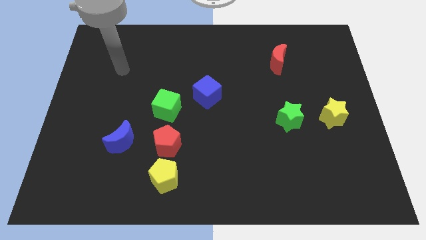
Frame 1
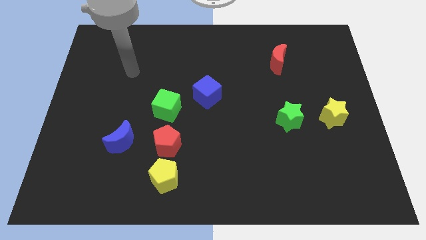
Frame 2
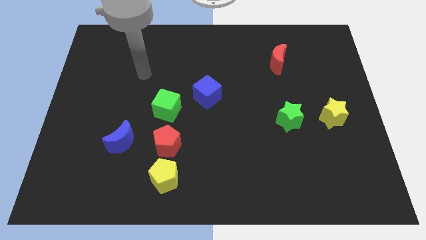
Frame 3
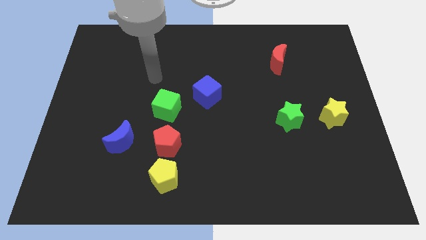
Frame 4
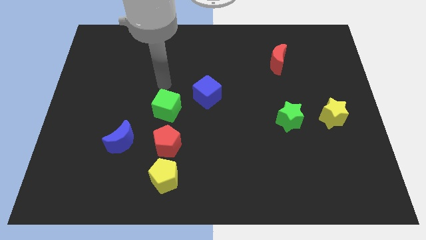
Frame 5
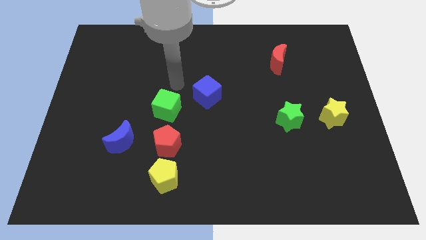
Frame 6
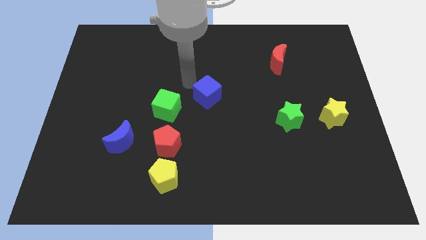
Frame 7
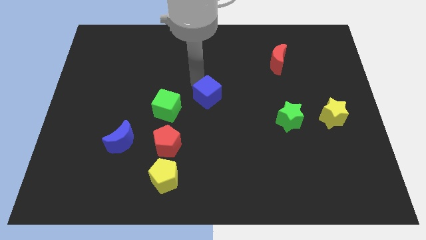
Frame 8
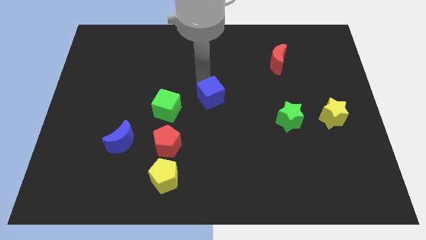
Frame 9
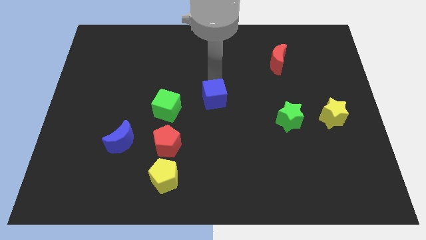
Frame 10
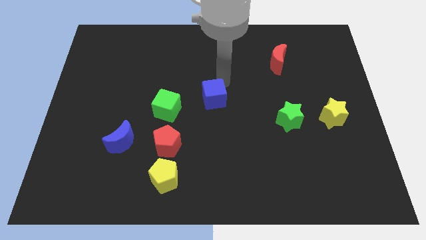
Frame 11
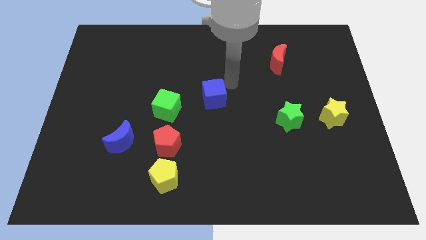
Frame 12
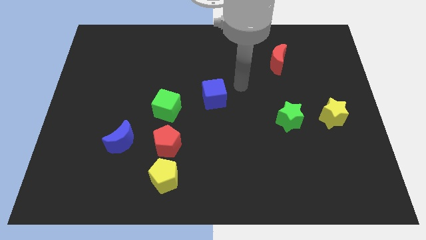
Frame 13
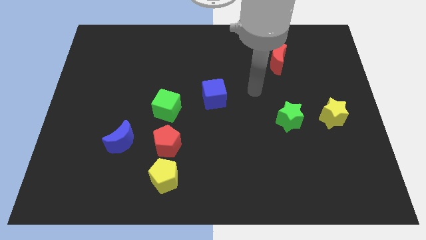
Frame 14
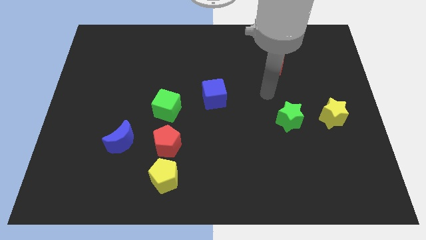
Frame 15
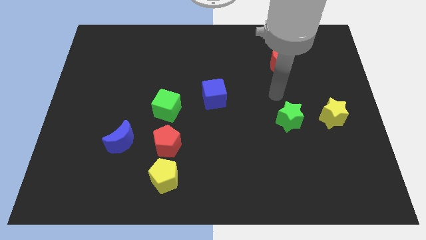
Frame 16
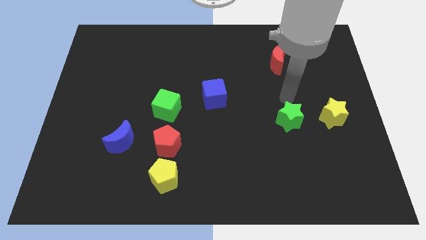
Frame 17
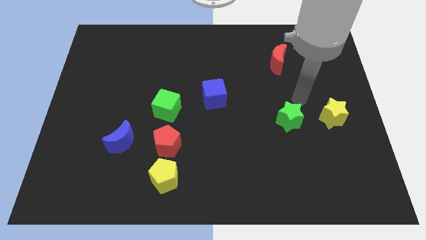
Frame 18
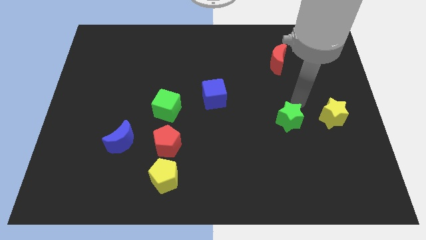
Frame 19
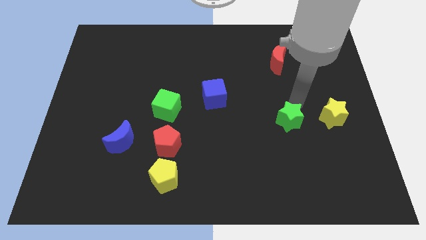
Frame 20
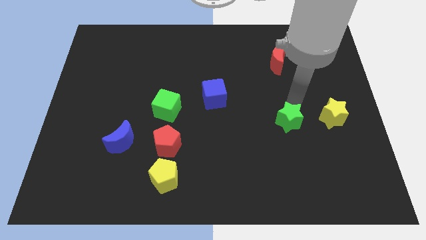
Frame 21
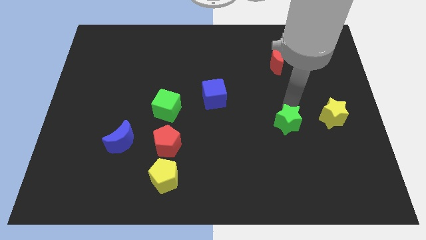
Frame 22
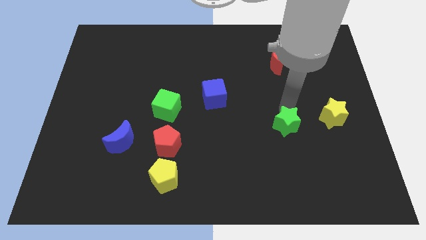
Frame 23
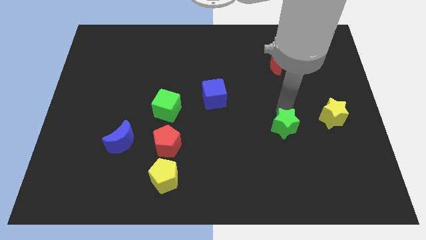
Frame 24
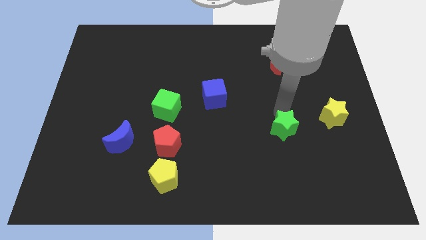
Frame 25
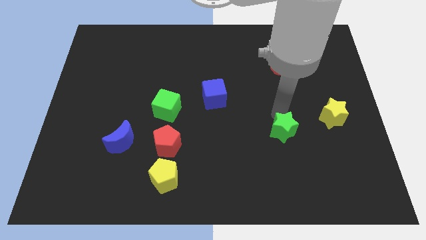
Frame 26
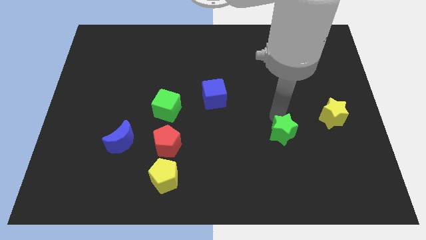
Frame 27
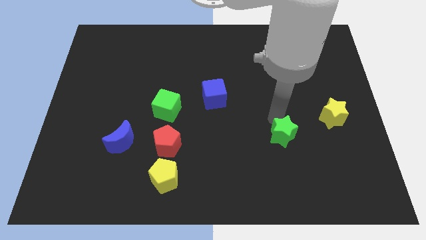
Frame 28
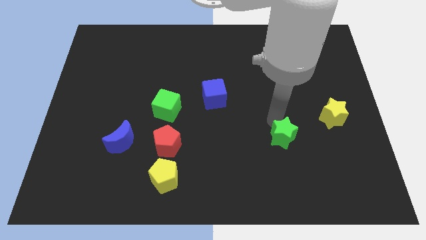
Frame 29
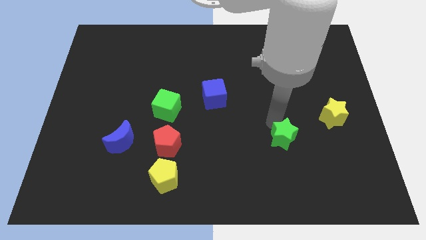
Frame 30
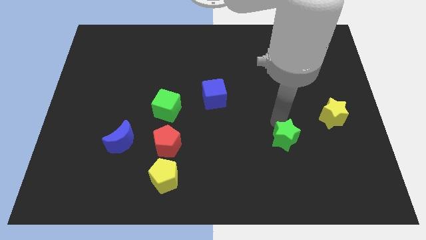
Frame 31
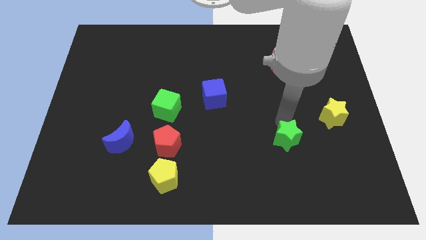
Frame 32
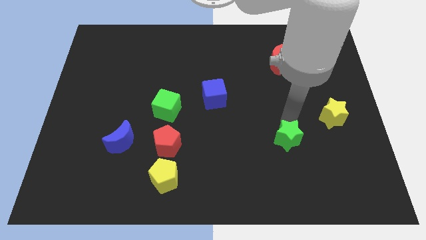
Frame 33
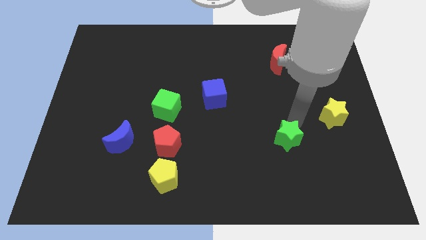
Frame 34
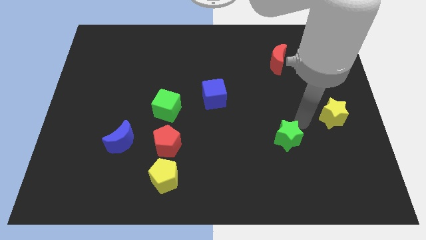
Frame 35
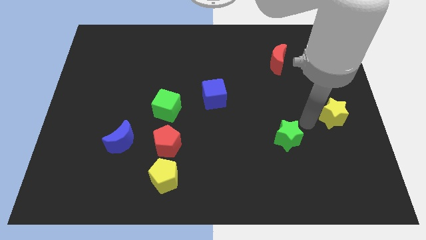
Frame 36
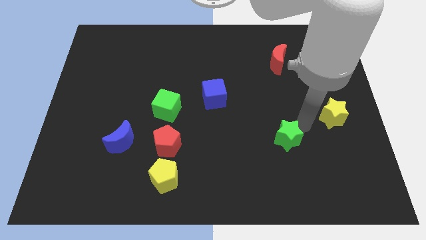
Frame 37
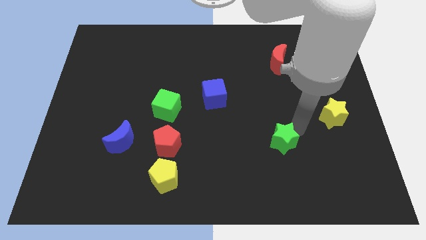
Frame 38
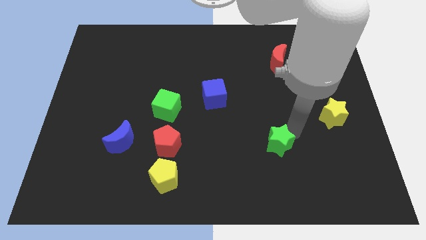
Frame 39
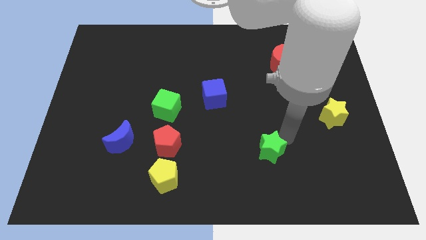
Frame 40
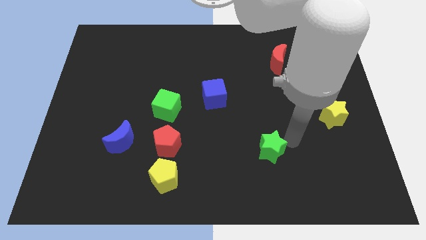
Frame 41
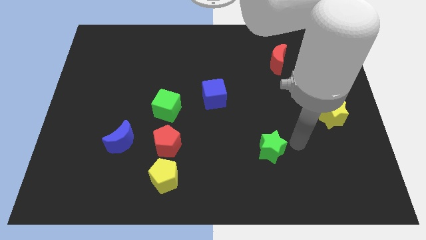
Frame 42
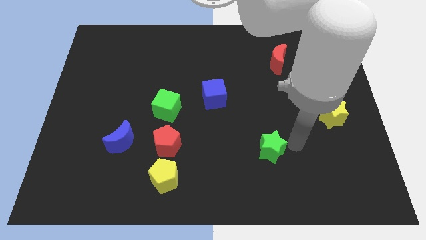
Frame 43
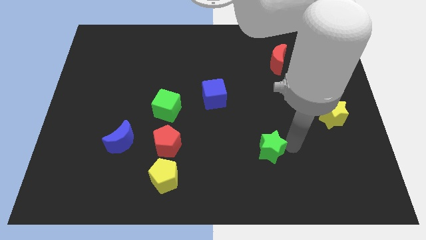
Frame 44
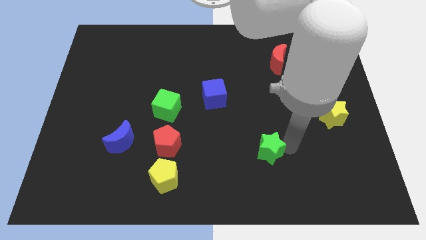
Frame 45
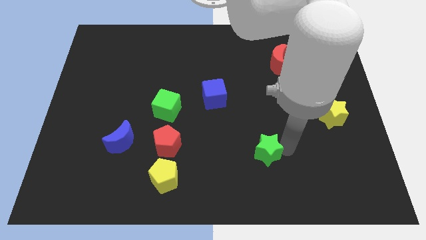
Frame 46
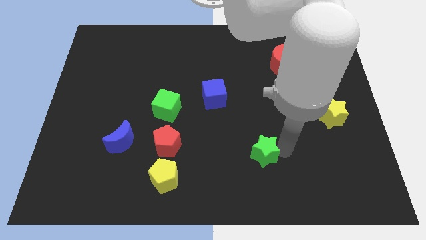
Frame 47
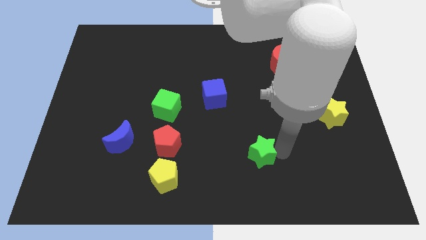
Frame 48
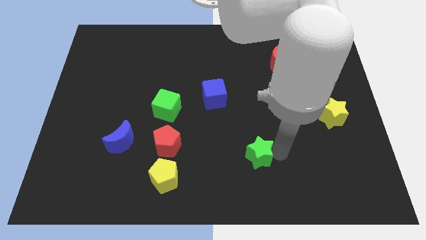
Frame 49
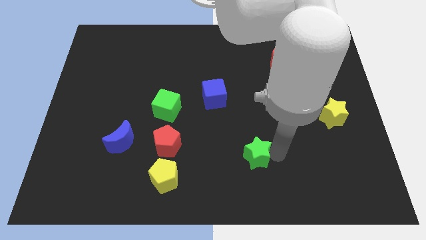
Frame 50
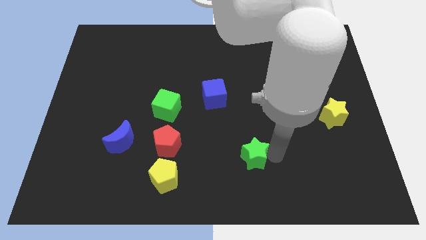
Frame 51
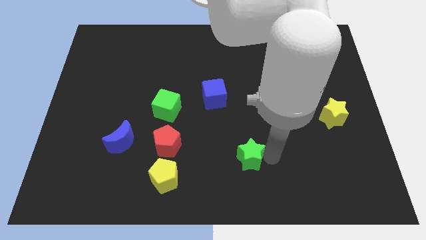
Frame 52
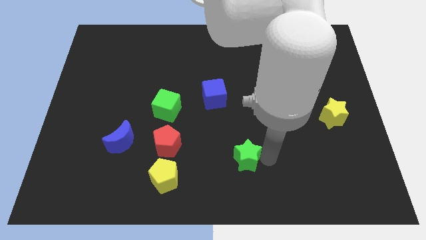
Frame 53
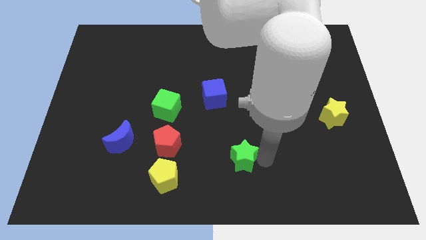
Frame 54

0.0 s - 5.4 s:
put the green star to the bottom side

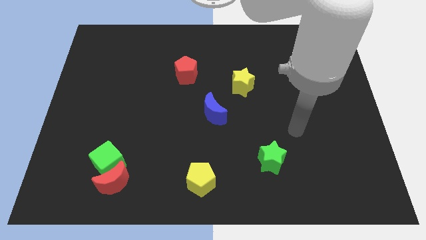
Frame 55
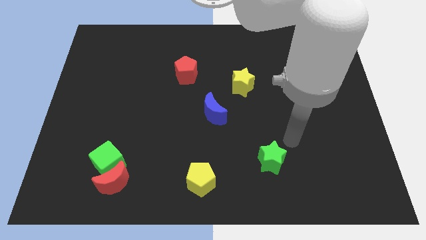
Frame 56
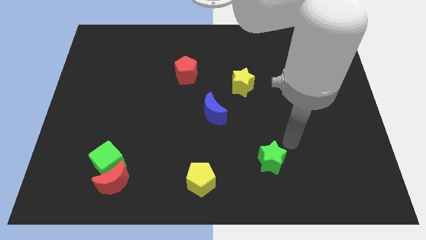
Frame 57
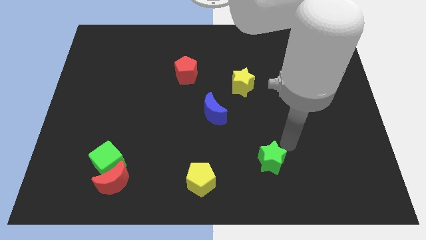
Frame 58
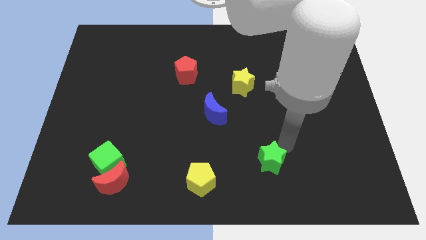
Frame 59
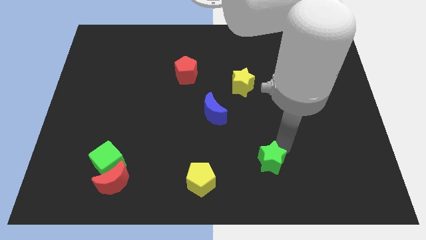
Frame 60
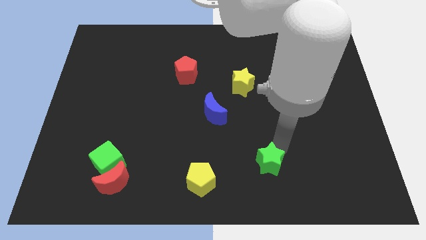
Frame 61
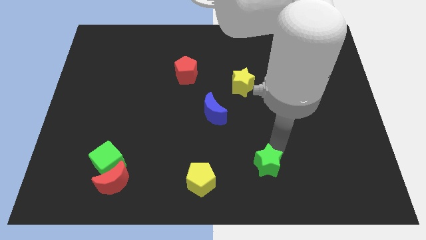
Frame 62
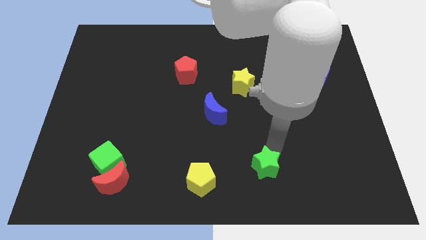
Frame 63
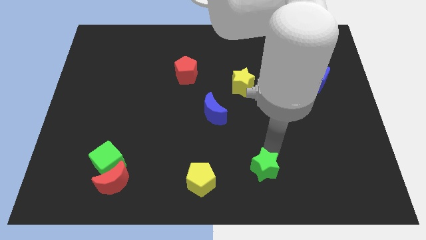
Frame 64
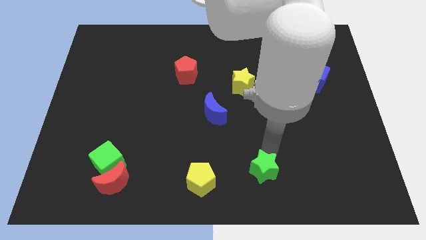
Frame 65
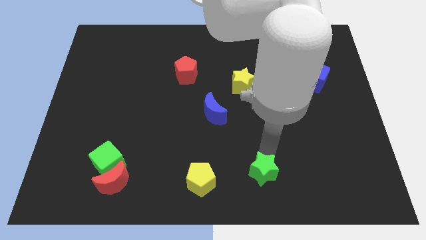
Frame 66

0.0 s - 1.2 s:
push the green star to the bottom side

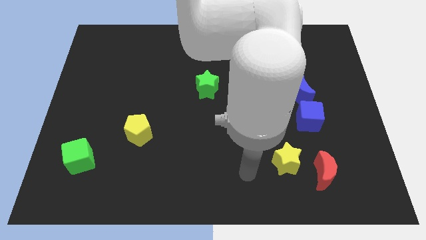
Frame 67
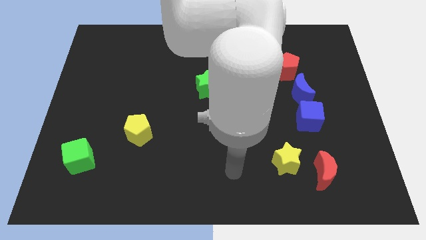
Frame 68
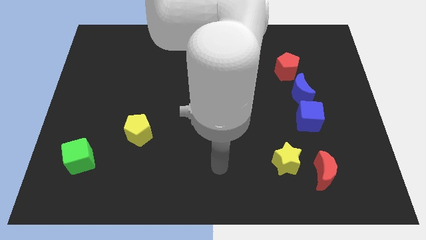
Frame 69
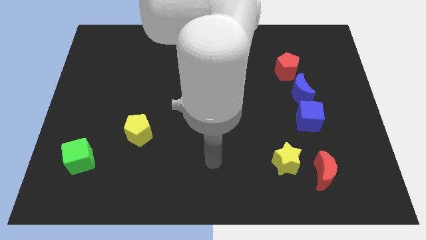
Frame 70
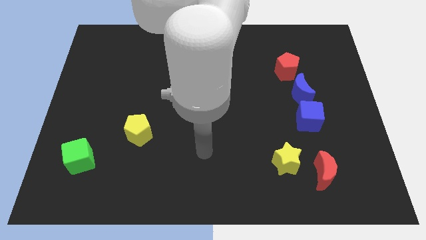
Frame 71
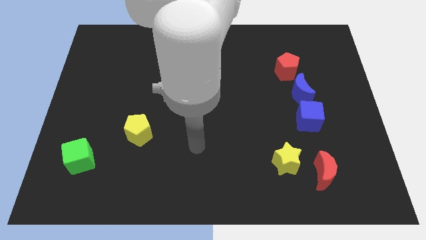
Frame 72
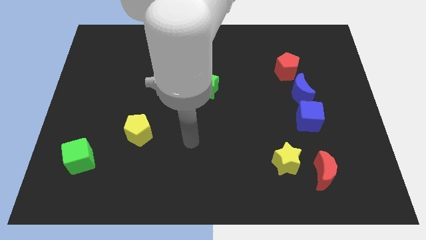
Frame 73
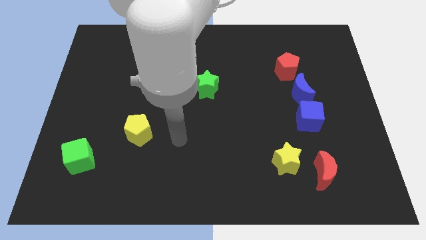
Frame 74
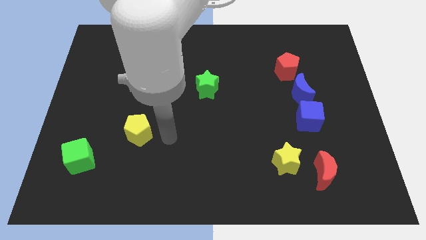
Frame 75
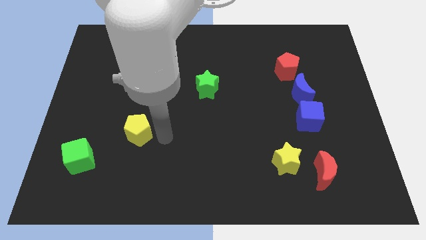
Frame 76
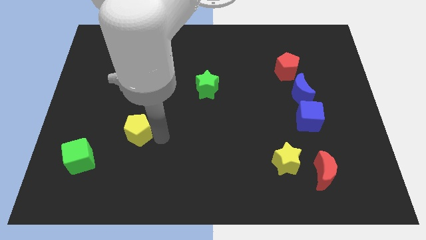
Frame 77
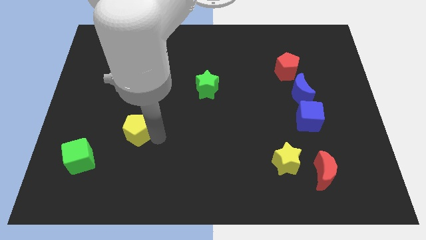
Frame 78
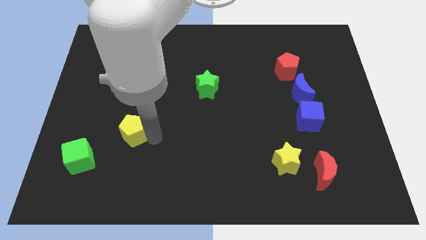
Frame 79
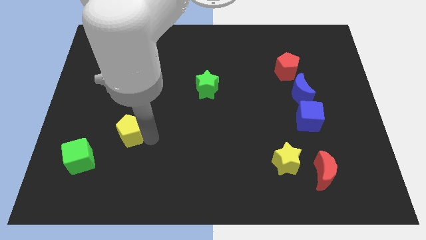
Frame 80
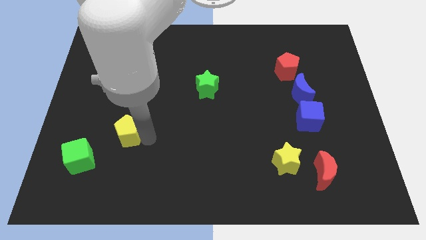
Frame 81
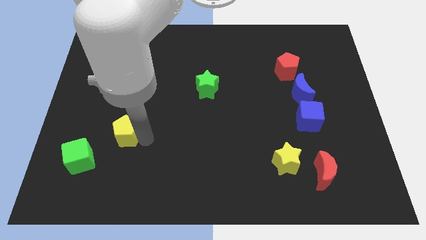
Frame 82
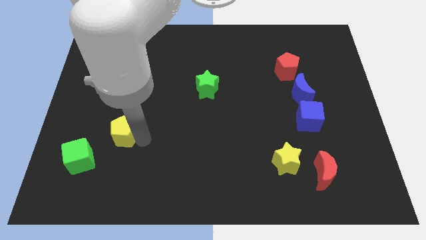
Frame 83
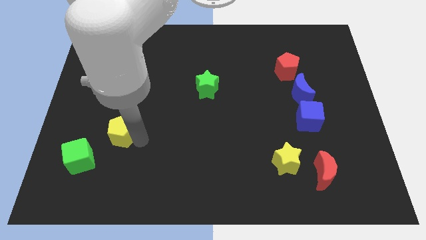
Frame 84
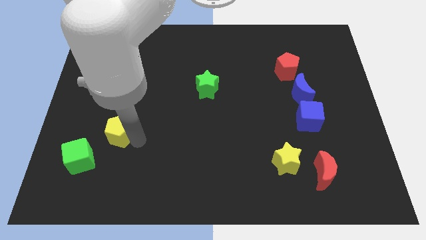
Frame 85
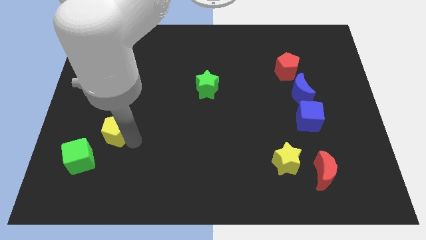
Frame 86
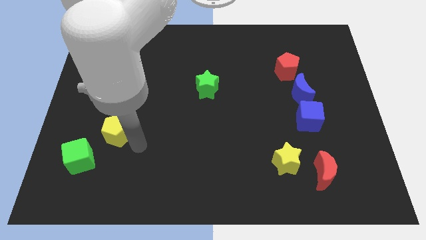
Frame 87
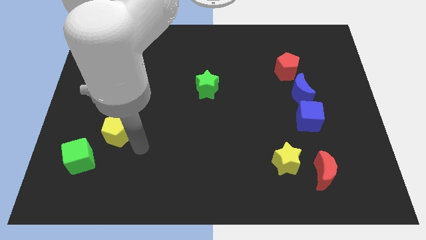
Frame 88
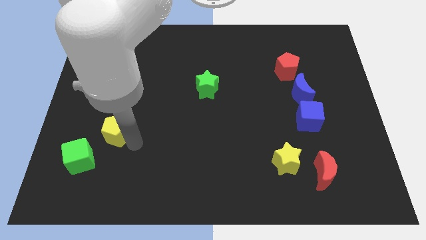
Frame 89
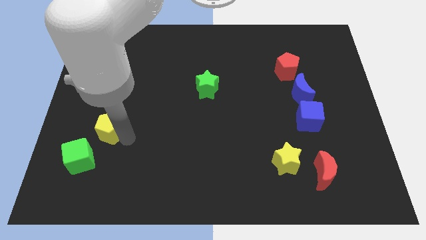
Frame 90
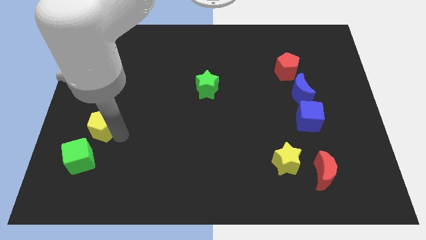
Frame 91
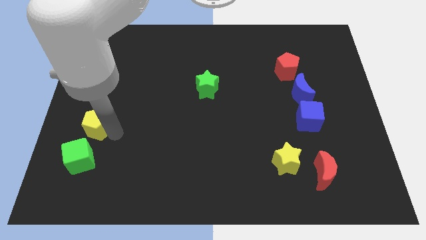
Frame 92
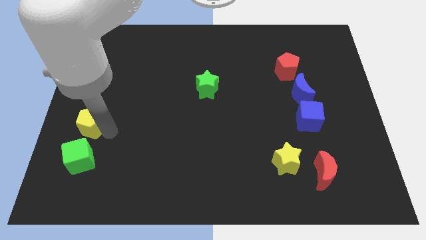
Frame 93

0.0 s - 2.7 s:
put the yellow pentagon to the left side of the board
